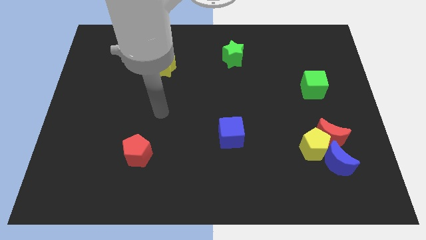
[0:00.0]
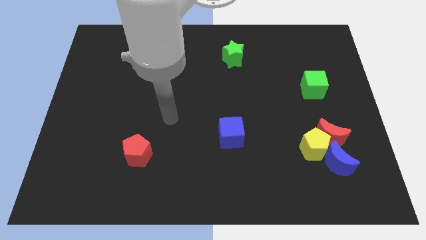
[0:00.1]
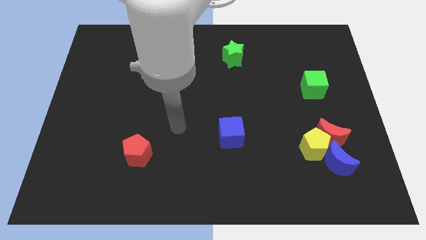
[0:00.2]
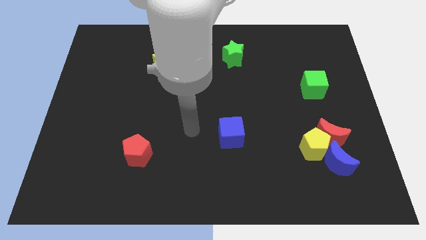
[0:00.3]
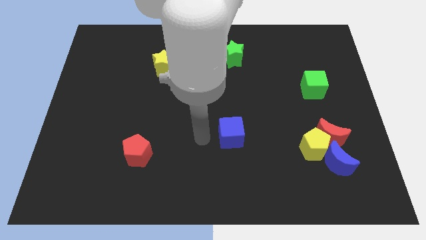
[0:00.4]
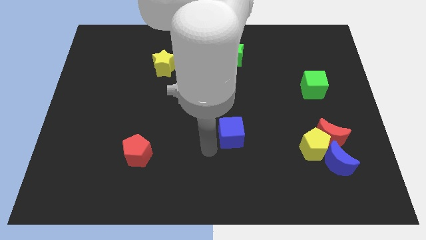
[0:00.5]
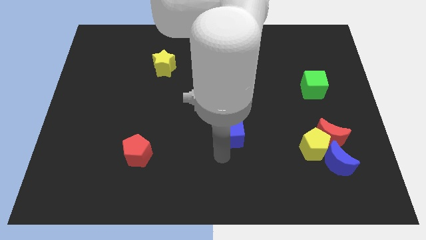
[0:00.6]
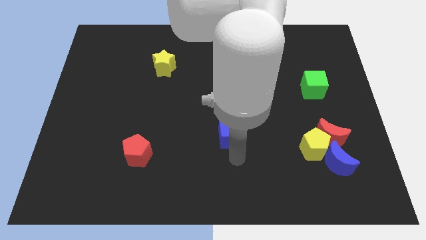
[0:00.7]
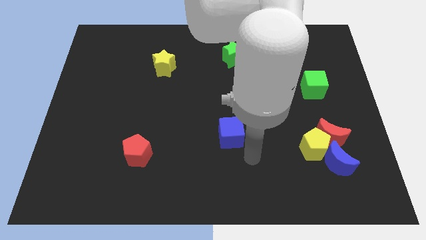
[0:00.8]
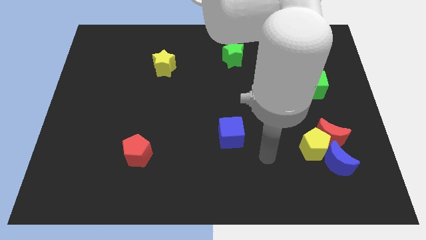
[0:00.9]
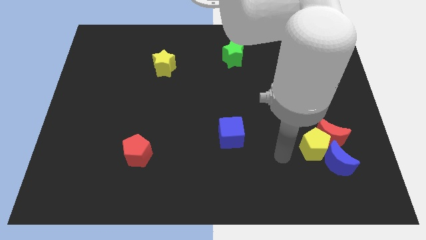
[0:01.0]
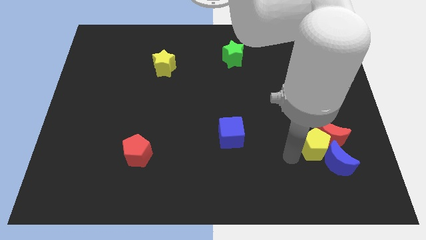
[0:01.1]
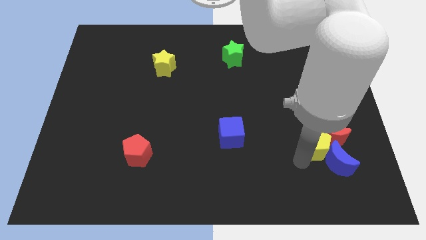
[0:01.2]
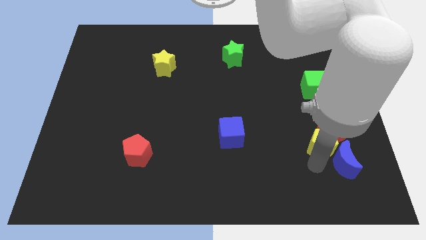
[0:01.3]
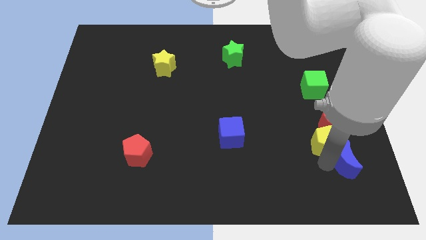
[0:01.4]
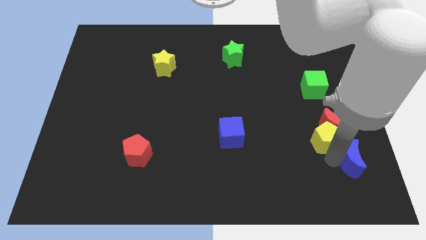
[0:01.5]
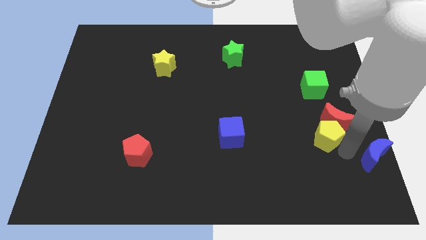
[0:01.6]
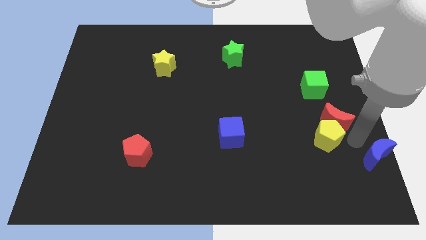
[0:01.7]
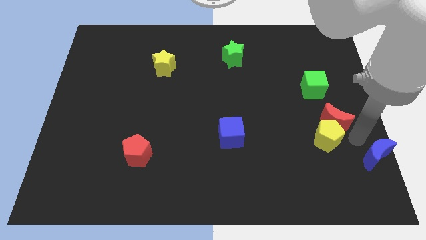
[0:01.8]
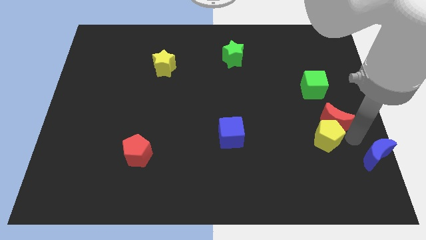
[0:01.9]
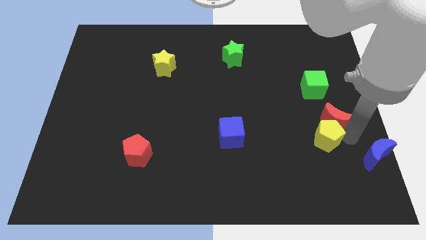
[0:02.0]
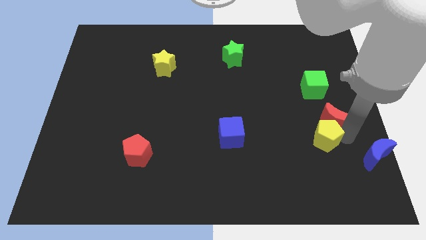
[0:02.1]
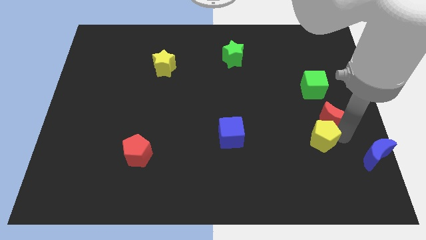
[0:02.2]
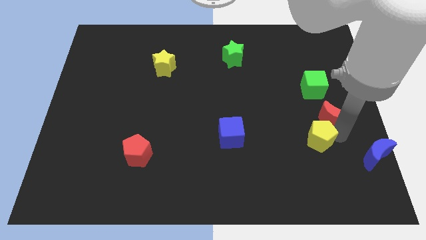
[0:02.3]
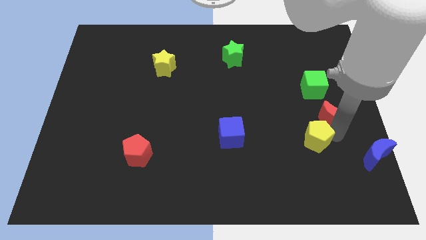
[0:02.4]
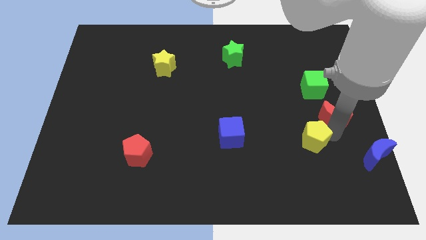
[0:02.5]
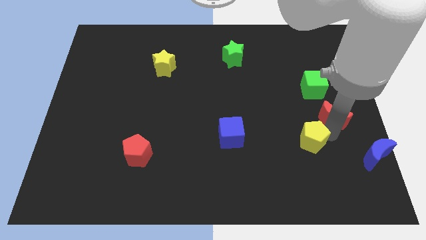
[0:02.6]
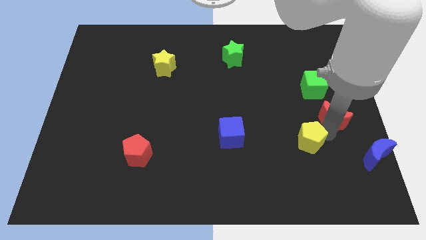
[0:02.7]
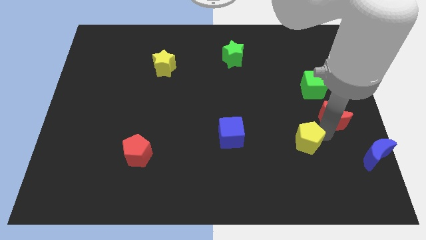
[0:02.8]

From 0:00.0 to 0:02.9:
pull the yellow pentagon apart from the red moon and blue moon

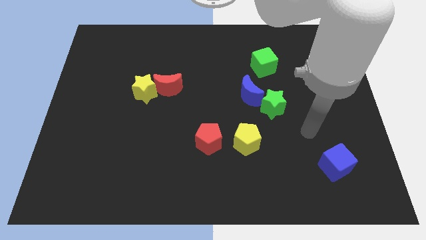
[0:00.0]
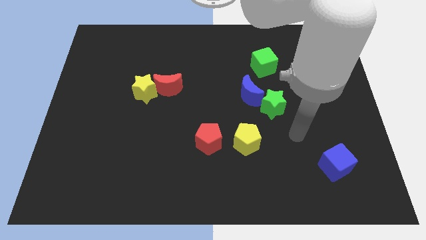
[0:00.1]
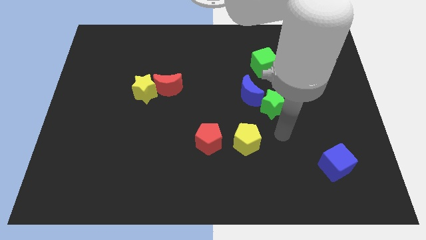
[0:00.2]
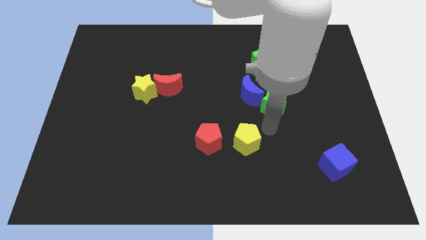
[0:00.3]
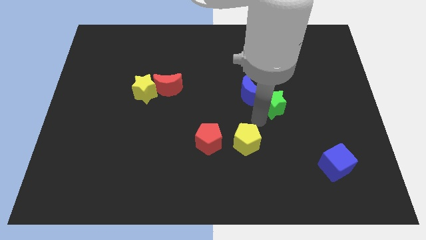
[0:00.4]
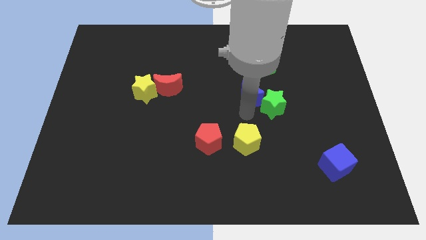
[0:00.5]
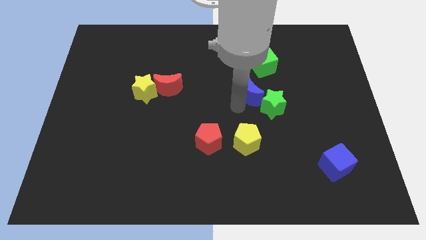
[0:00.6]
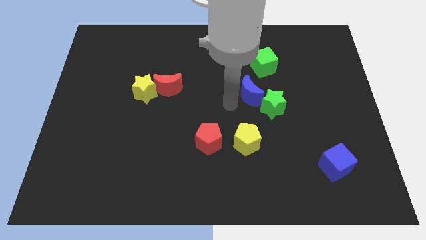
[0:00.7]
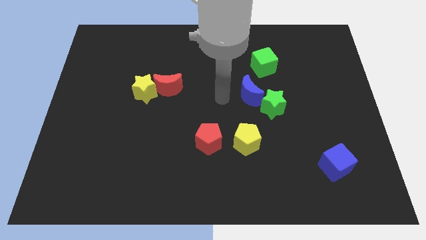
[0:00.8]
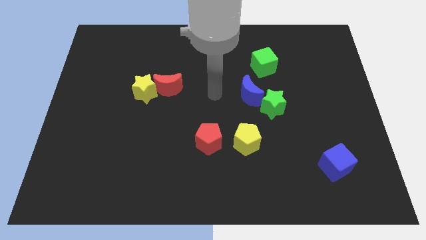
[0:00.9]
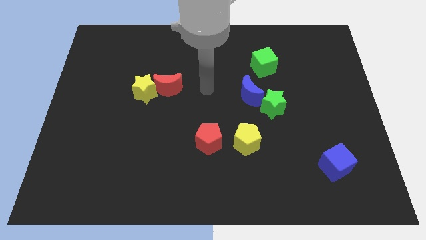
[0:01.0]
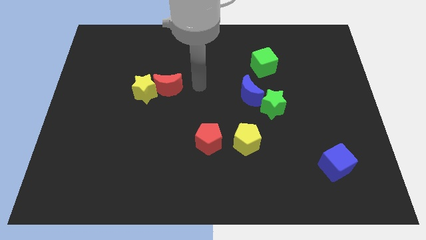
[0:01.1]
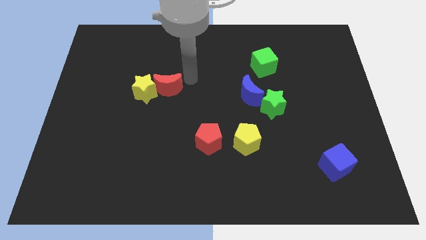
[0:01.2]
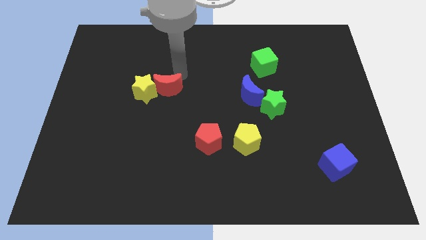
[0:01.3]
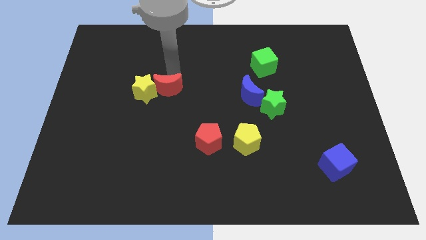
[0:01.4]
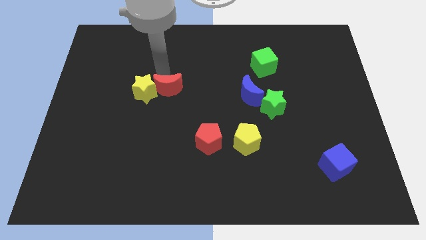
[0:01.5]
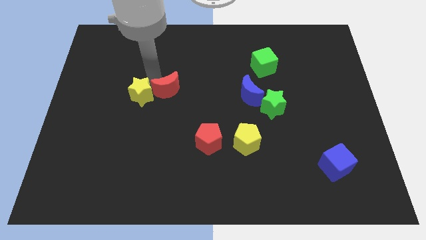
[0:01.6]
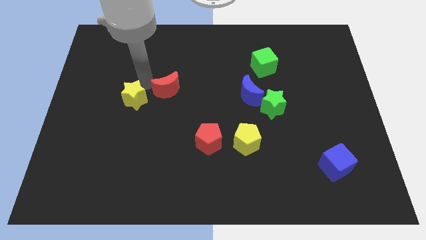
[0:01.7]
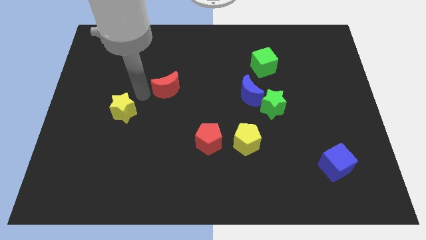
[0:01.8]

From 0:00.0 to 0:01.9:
separate the red moon from the yellow star

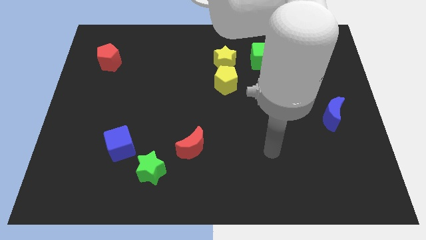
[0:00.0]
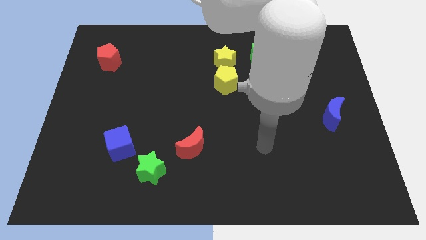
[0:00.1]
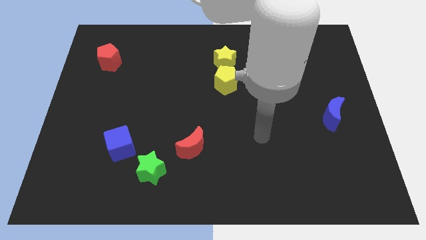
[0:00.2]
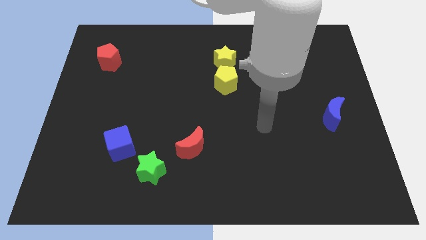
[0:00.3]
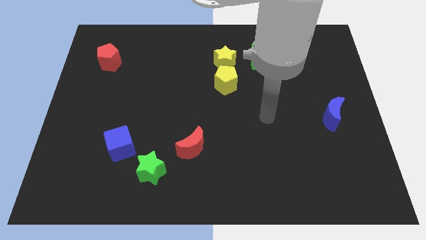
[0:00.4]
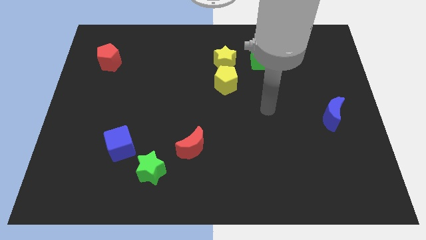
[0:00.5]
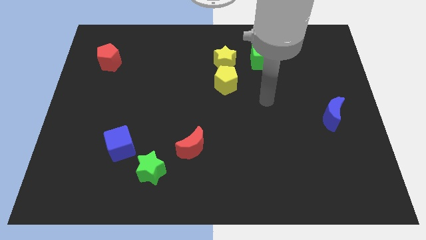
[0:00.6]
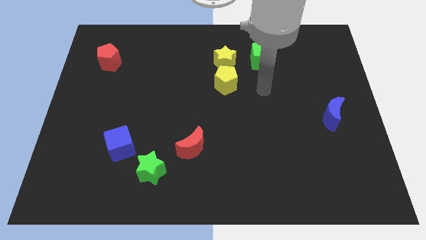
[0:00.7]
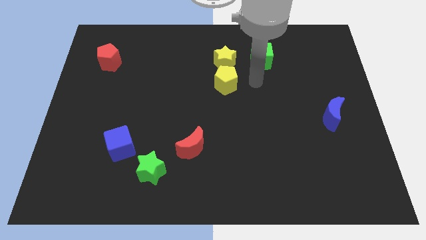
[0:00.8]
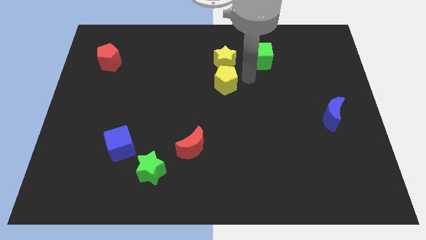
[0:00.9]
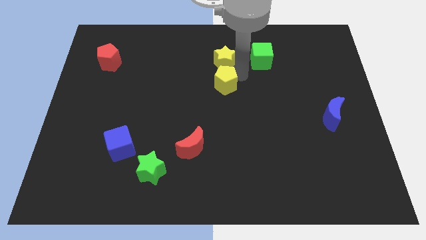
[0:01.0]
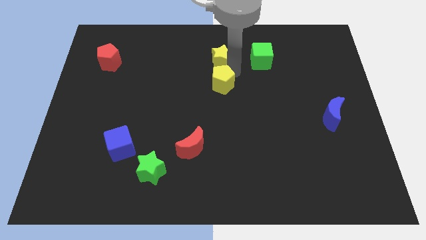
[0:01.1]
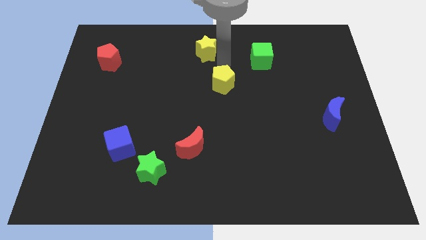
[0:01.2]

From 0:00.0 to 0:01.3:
move the yellow pentagon away from the yellow star

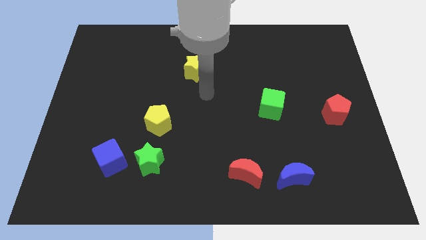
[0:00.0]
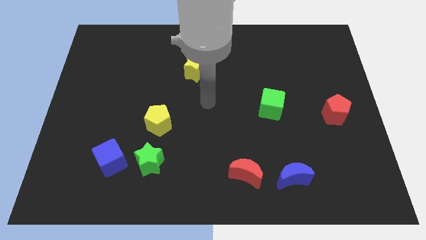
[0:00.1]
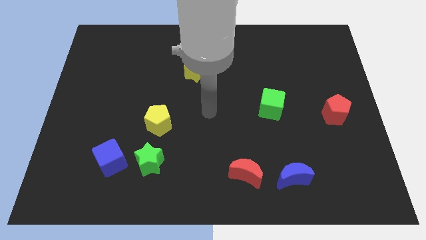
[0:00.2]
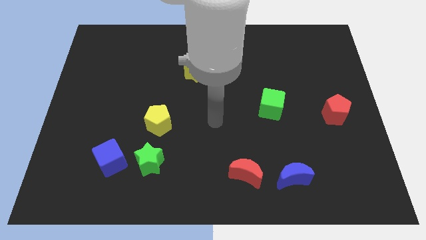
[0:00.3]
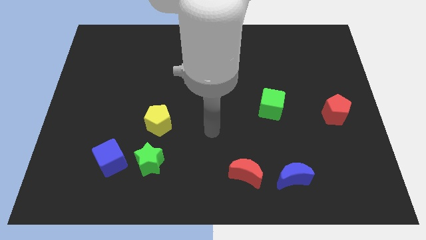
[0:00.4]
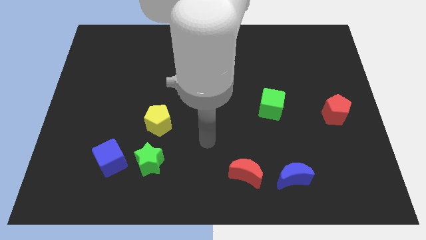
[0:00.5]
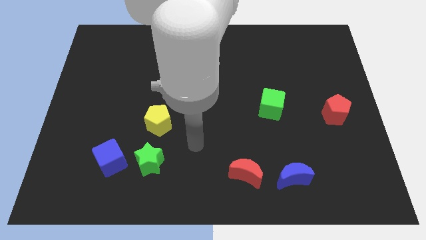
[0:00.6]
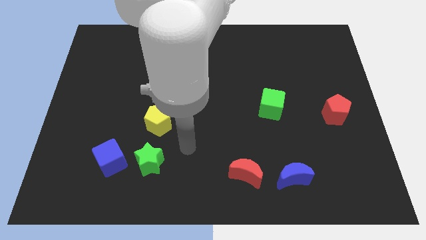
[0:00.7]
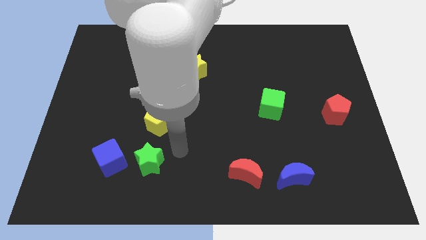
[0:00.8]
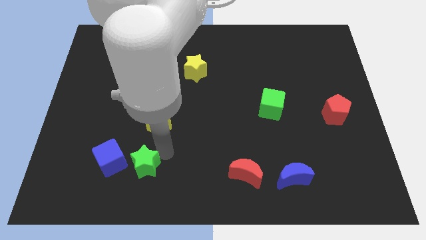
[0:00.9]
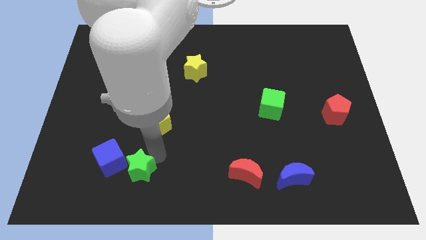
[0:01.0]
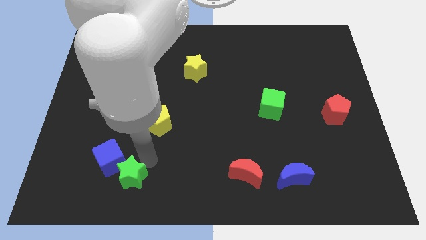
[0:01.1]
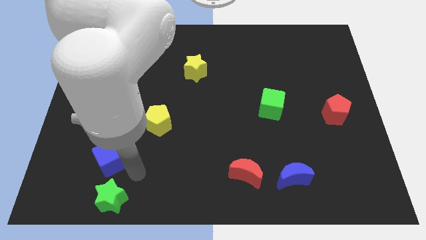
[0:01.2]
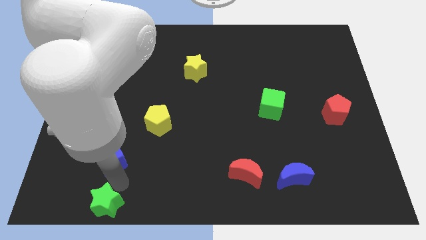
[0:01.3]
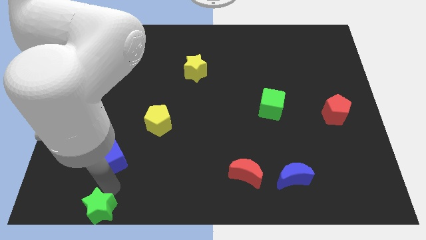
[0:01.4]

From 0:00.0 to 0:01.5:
pull the blue cube apart from the green star

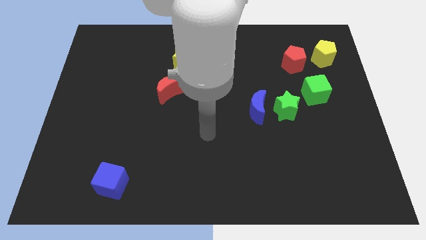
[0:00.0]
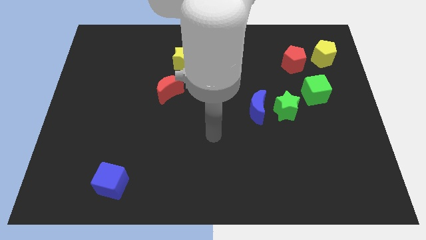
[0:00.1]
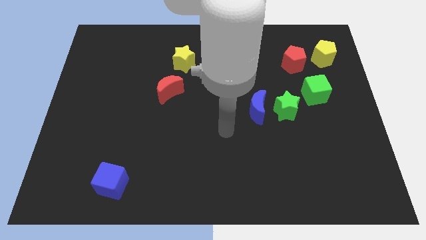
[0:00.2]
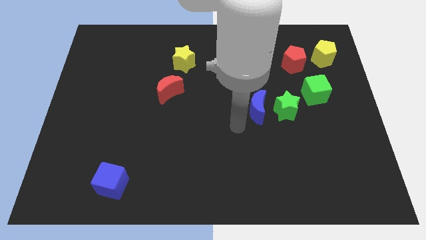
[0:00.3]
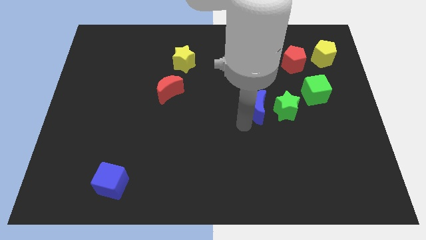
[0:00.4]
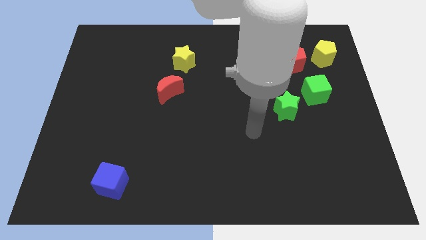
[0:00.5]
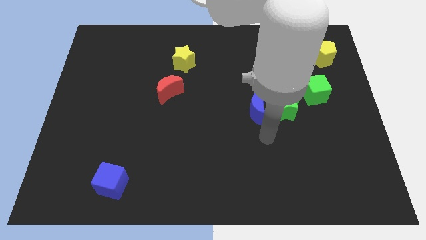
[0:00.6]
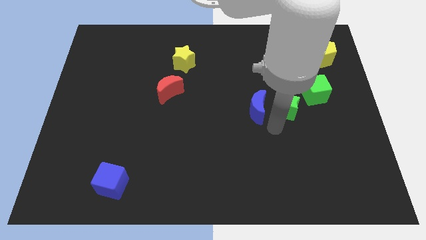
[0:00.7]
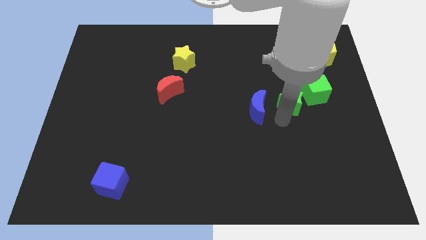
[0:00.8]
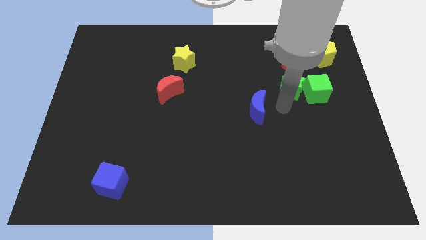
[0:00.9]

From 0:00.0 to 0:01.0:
separate the blue moon from the green star

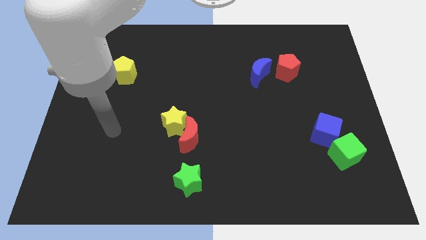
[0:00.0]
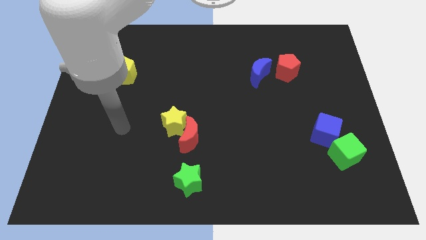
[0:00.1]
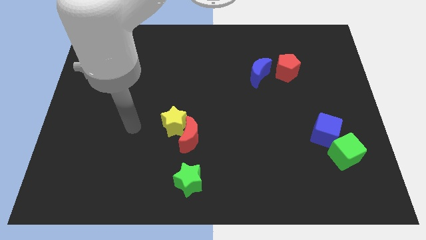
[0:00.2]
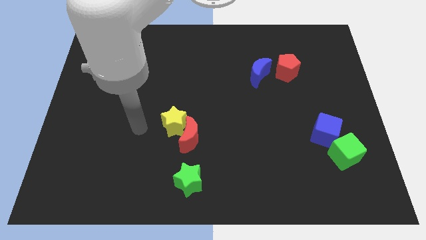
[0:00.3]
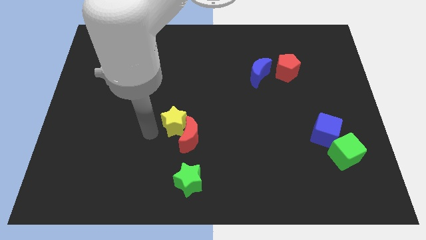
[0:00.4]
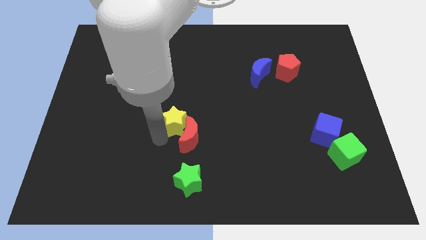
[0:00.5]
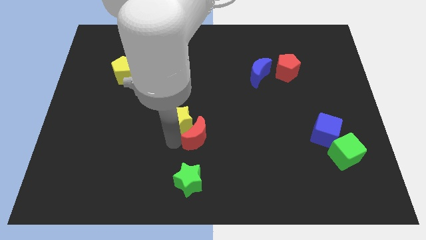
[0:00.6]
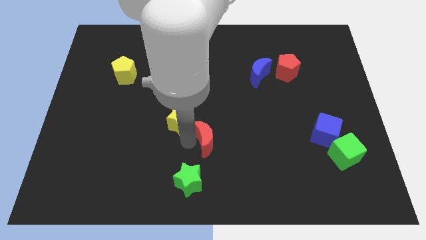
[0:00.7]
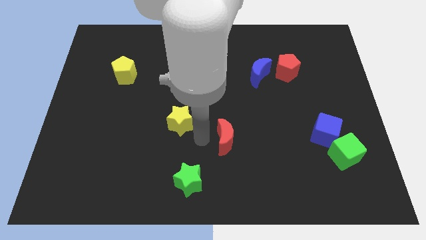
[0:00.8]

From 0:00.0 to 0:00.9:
separate the yellow star from the red moon

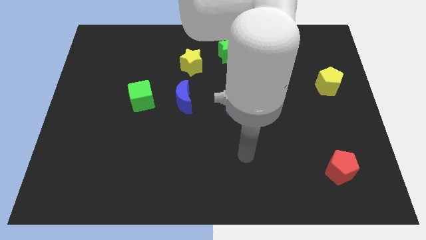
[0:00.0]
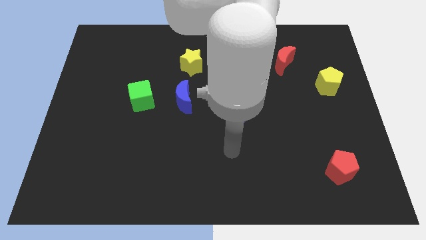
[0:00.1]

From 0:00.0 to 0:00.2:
move the blue moon away from the green cube
